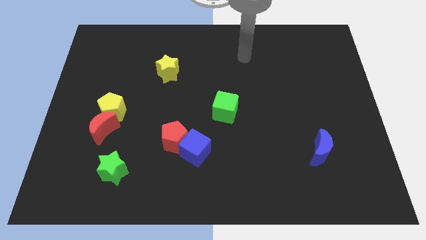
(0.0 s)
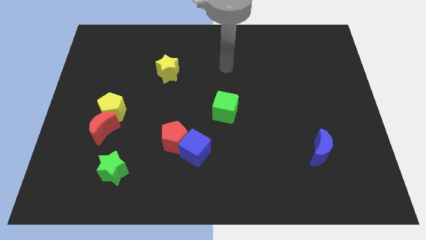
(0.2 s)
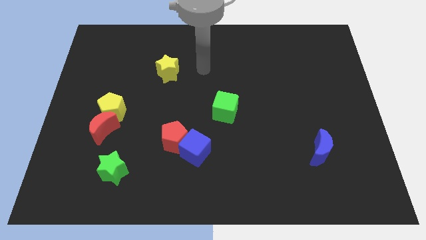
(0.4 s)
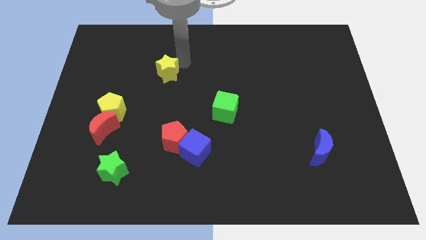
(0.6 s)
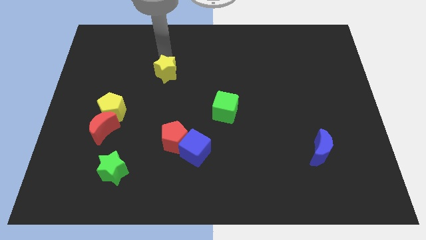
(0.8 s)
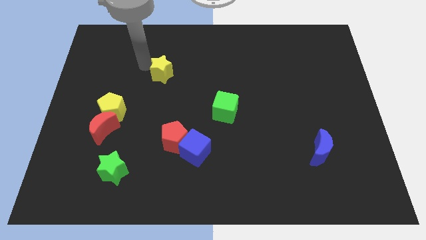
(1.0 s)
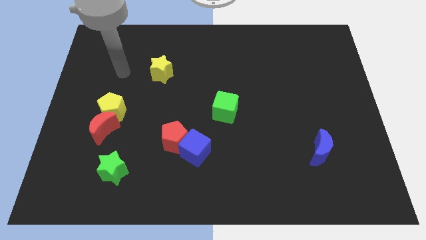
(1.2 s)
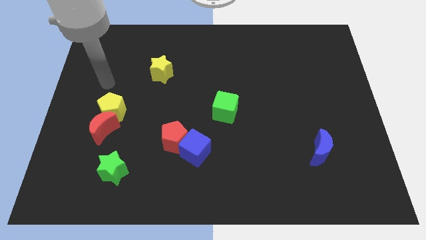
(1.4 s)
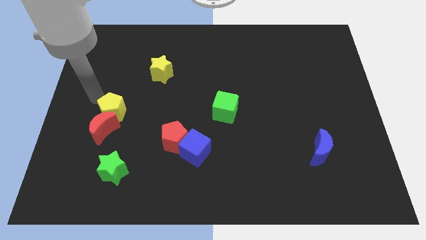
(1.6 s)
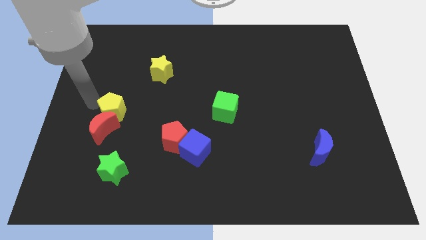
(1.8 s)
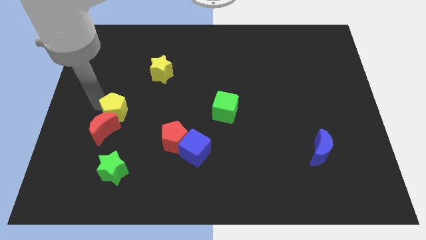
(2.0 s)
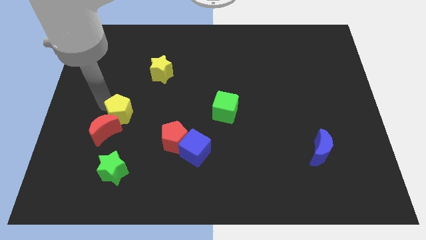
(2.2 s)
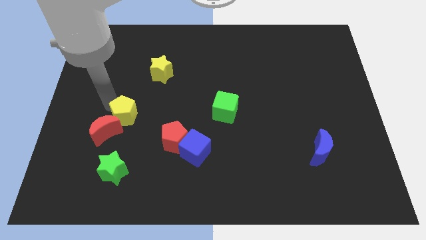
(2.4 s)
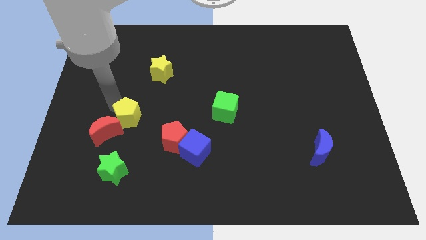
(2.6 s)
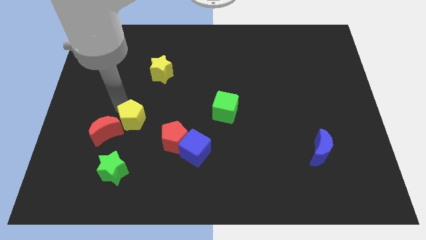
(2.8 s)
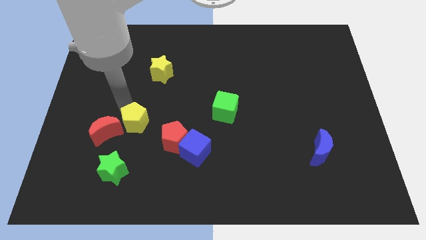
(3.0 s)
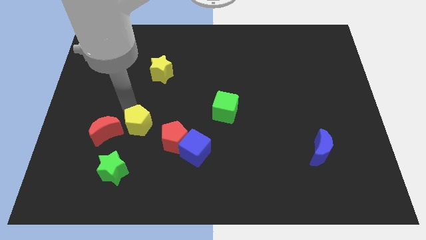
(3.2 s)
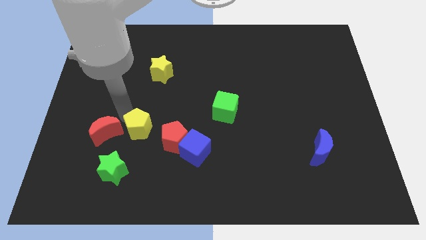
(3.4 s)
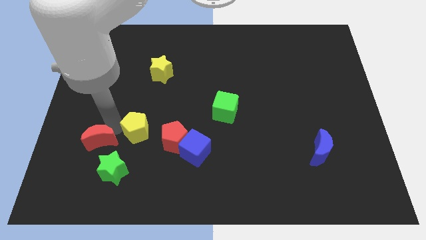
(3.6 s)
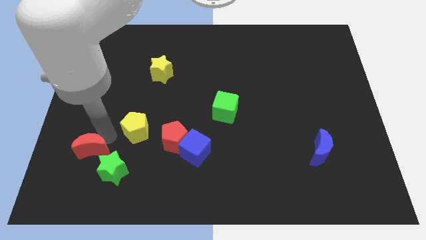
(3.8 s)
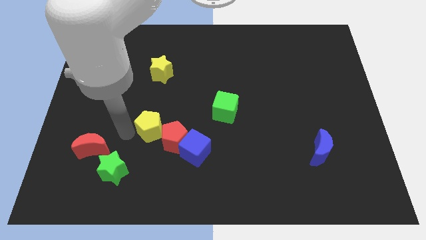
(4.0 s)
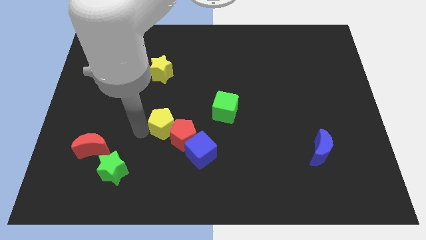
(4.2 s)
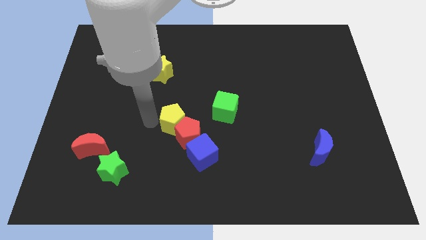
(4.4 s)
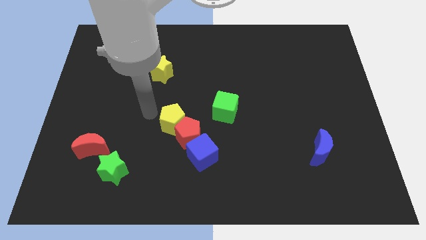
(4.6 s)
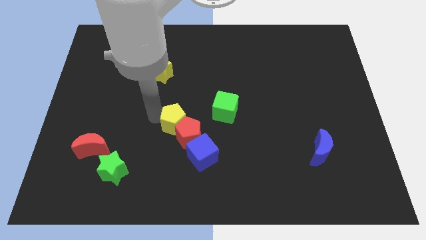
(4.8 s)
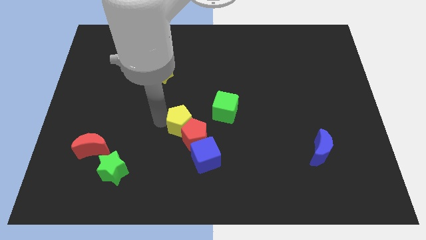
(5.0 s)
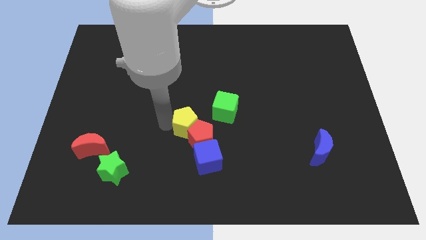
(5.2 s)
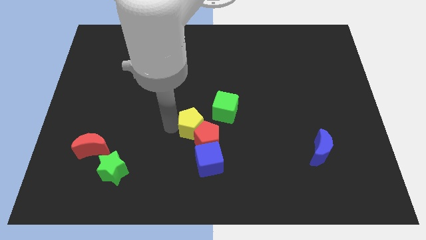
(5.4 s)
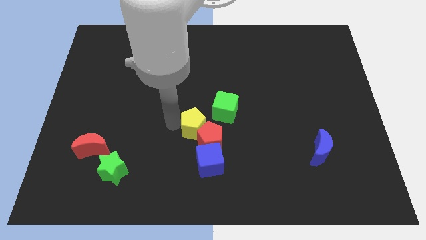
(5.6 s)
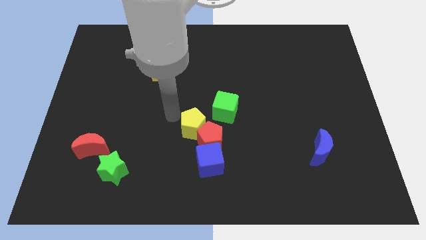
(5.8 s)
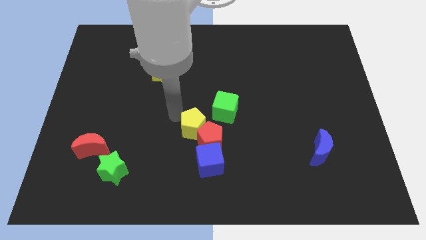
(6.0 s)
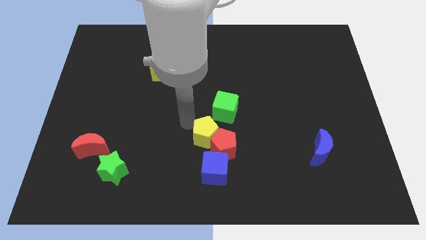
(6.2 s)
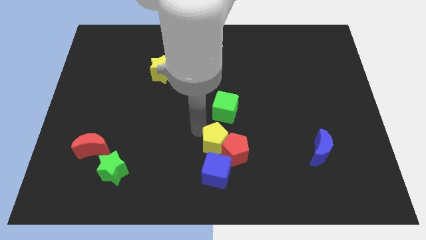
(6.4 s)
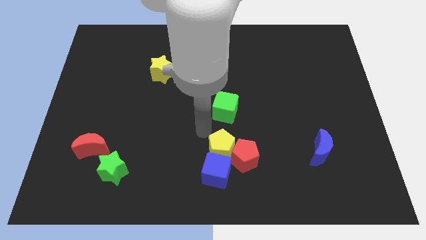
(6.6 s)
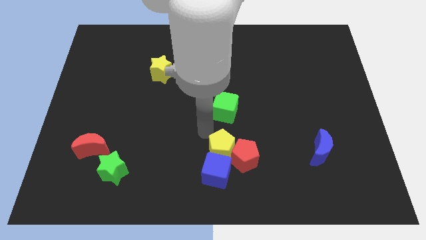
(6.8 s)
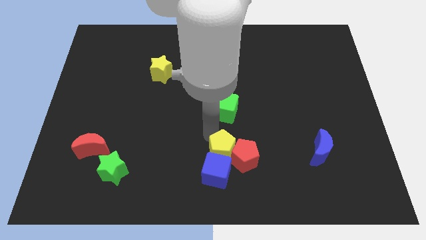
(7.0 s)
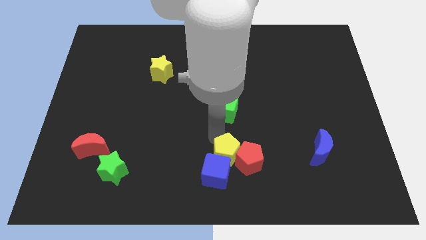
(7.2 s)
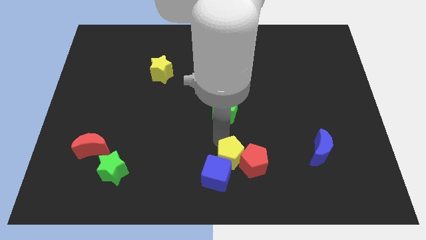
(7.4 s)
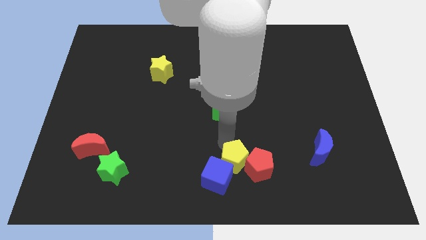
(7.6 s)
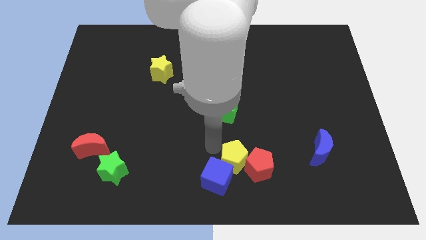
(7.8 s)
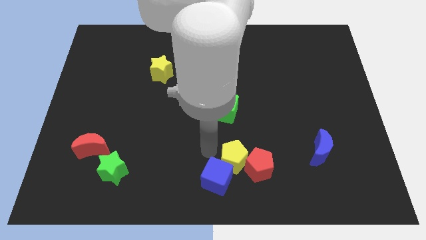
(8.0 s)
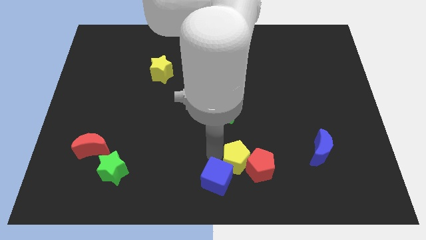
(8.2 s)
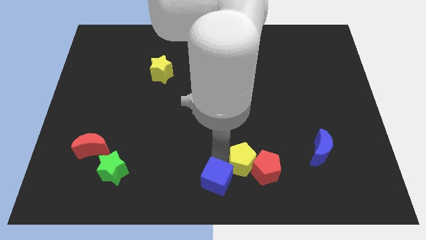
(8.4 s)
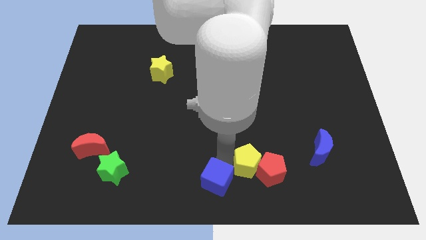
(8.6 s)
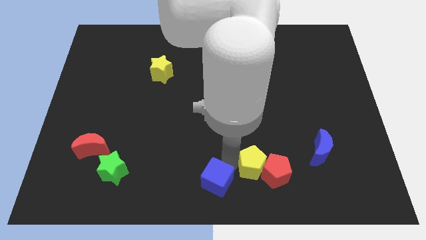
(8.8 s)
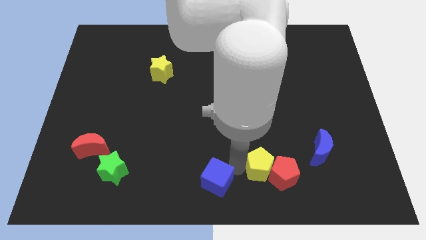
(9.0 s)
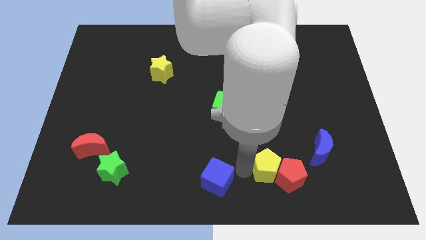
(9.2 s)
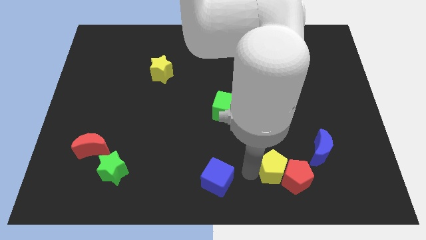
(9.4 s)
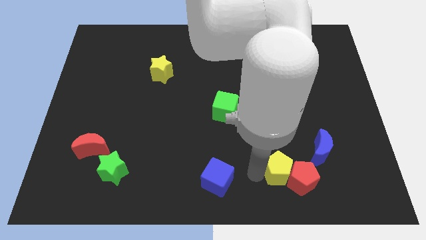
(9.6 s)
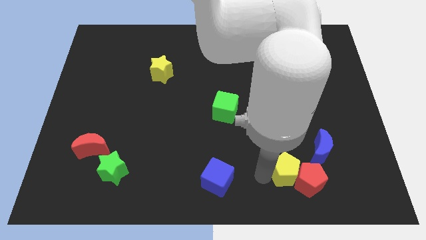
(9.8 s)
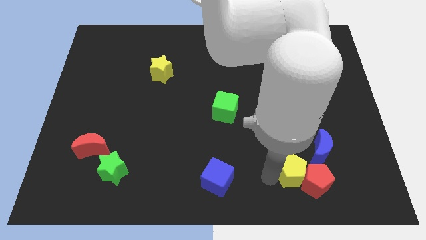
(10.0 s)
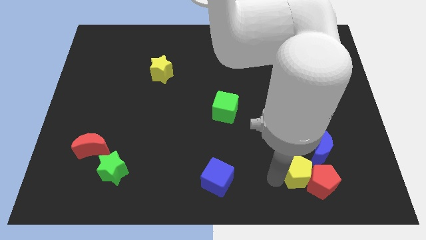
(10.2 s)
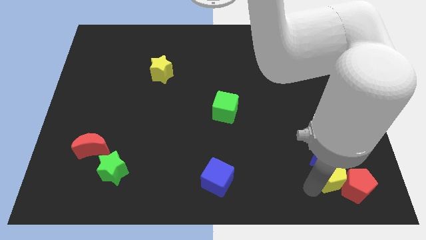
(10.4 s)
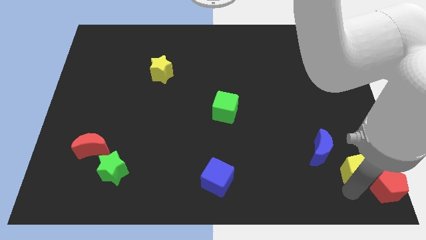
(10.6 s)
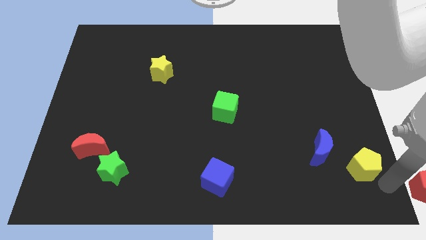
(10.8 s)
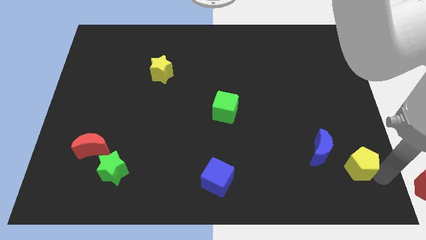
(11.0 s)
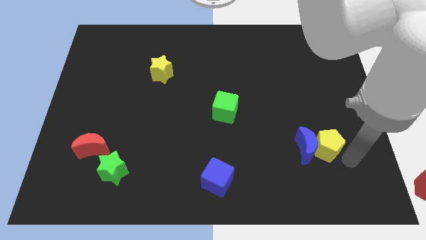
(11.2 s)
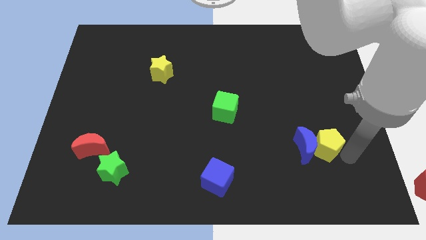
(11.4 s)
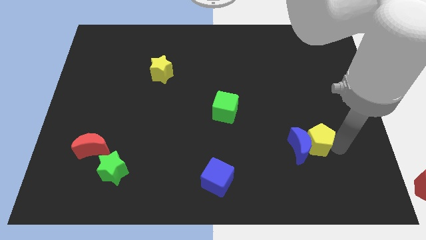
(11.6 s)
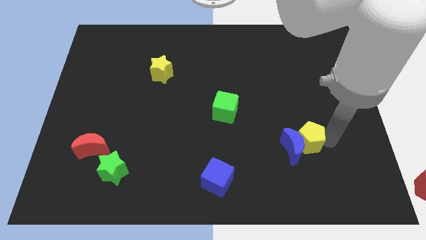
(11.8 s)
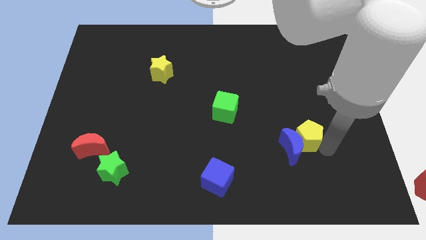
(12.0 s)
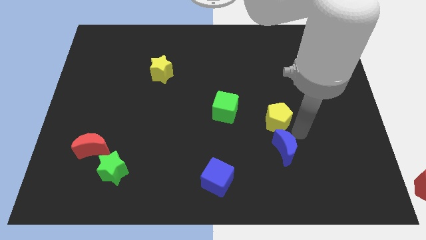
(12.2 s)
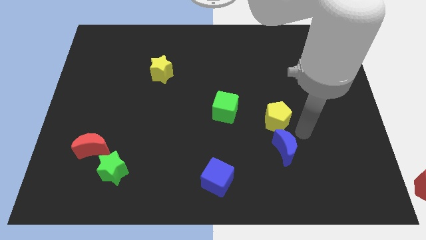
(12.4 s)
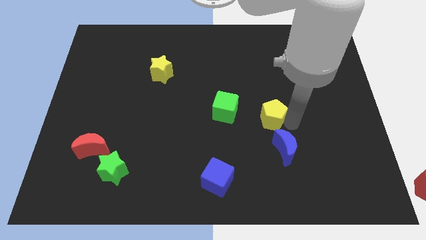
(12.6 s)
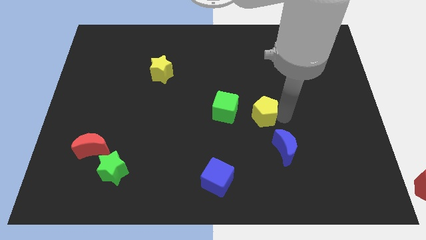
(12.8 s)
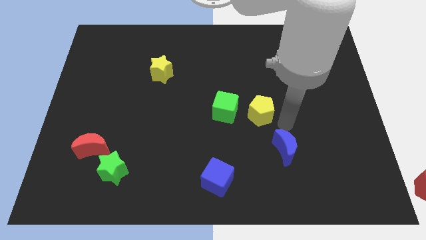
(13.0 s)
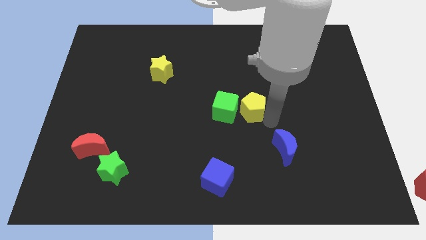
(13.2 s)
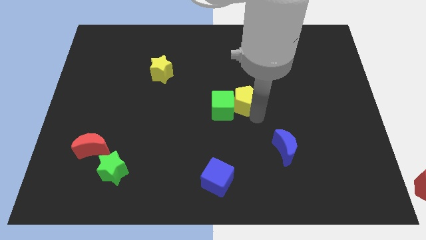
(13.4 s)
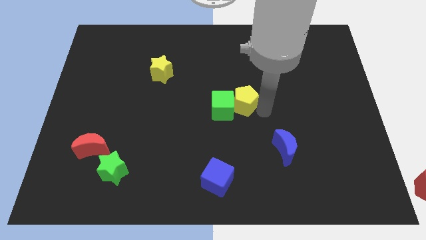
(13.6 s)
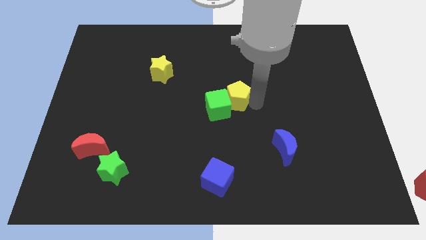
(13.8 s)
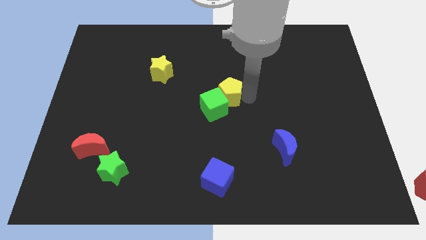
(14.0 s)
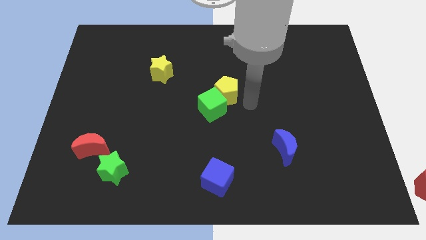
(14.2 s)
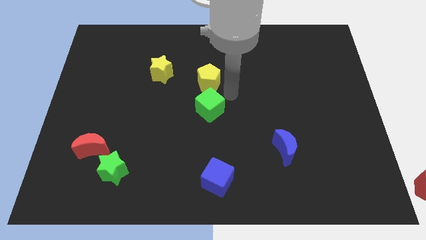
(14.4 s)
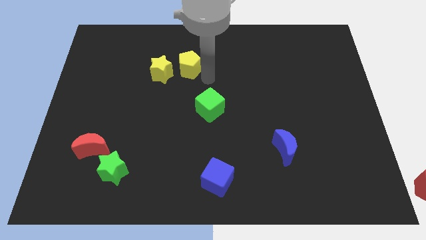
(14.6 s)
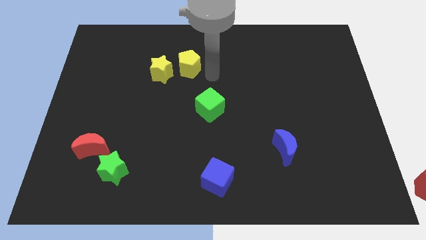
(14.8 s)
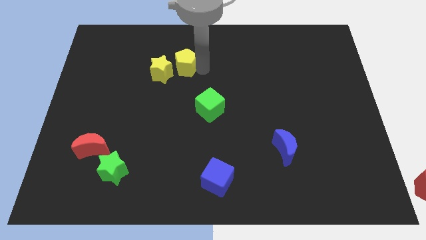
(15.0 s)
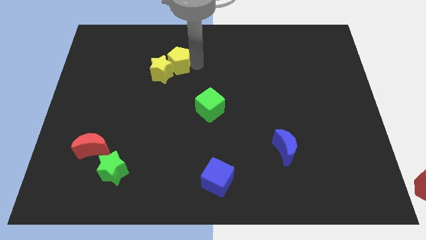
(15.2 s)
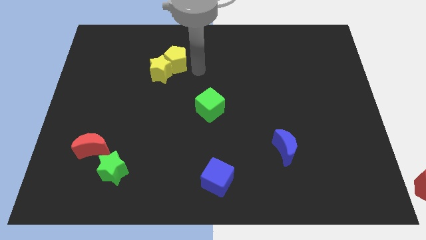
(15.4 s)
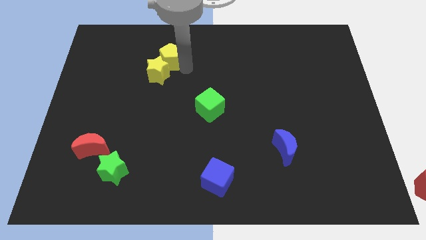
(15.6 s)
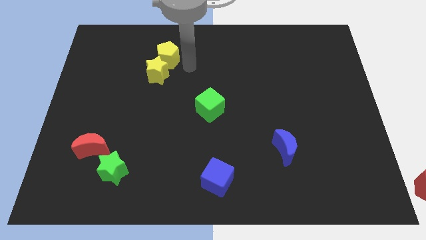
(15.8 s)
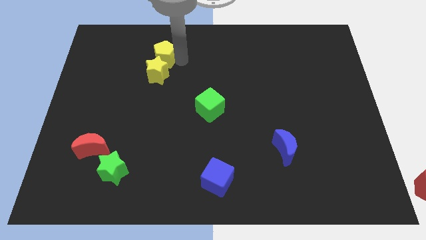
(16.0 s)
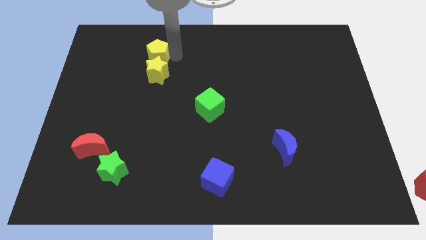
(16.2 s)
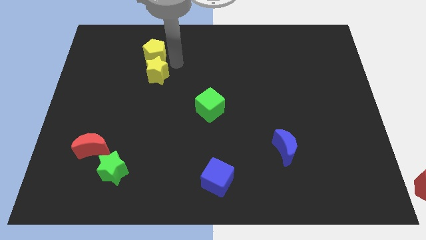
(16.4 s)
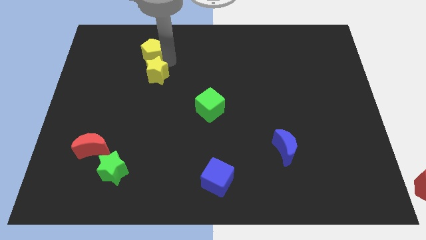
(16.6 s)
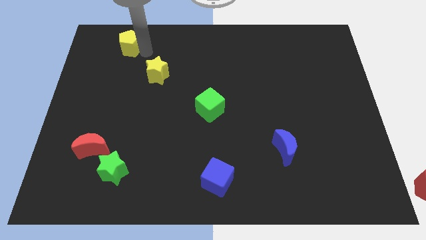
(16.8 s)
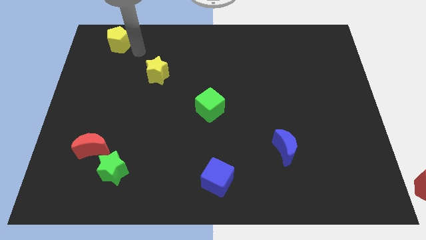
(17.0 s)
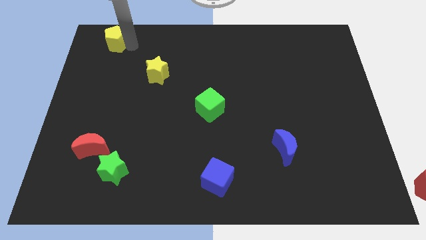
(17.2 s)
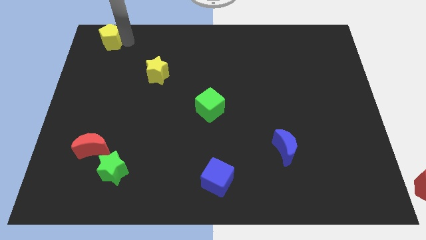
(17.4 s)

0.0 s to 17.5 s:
slide the yellow pentagon to the top left of the board
